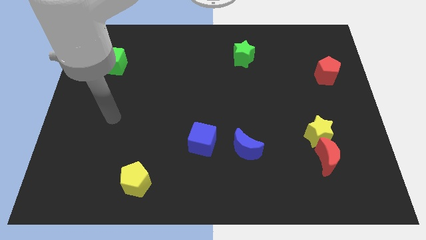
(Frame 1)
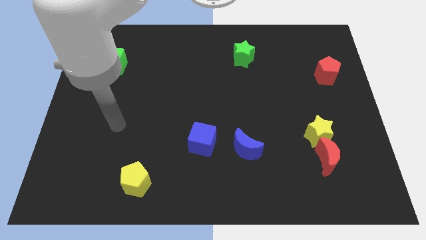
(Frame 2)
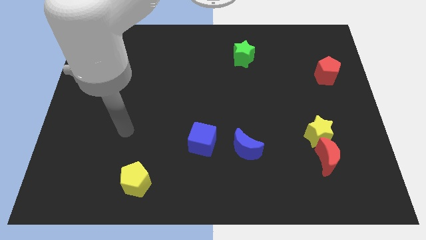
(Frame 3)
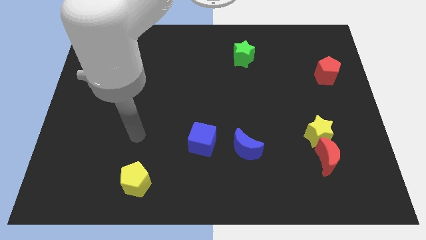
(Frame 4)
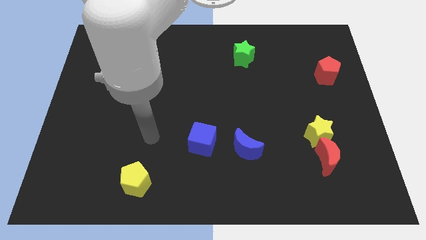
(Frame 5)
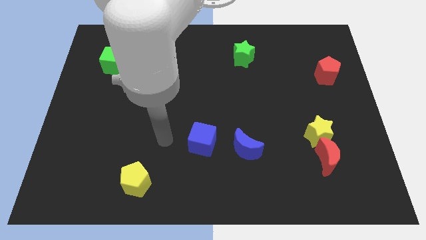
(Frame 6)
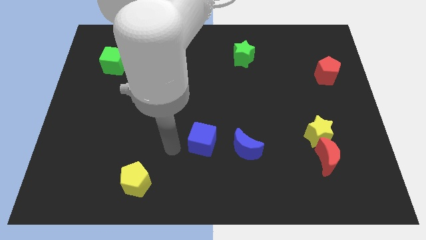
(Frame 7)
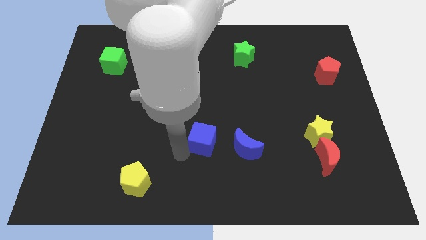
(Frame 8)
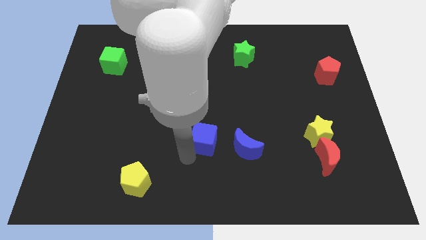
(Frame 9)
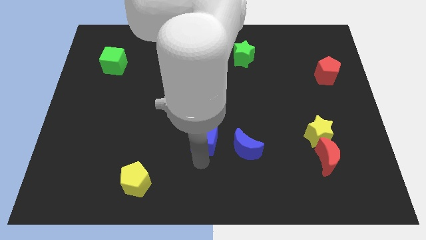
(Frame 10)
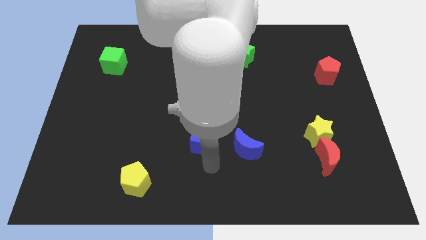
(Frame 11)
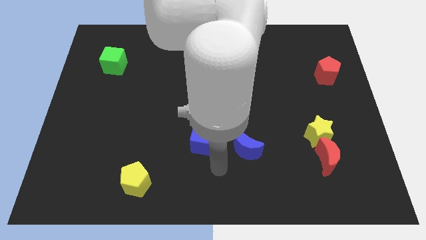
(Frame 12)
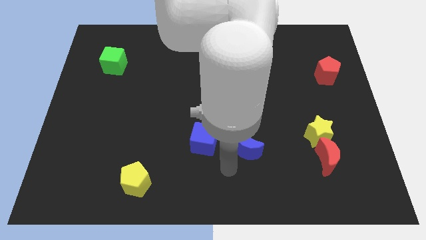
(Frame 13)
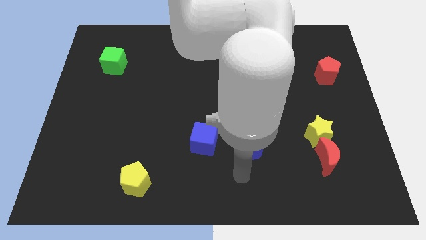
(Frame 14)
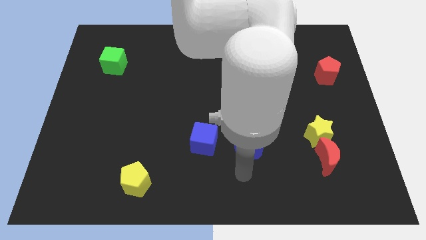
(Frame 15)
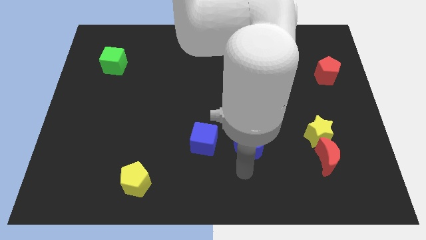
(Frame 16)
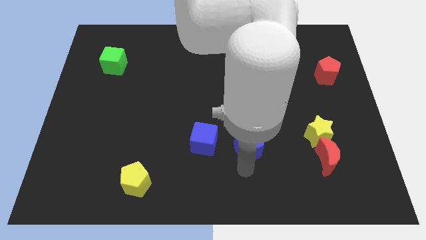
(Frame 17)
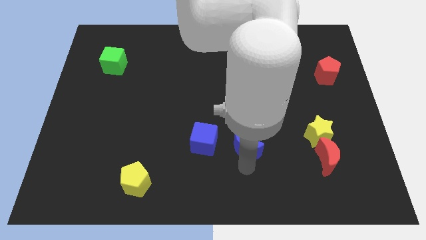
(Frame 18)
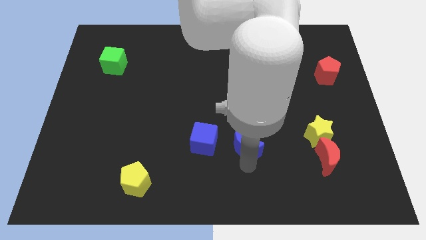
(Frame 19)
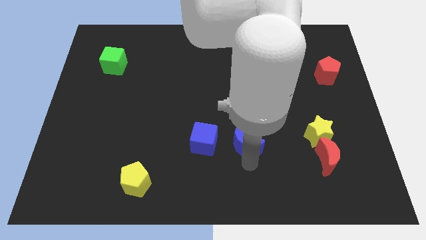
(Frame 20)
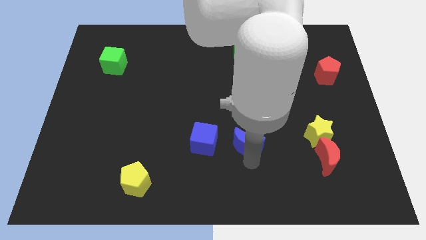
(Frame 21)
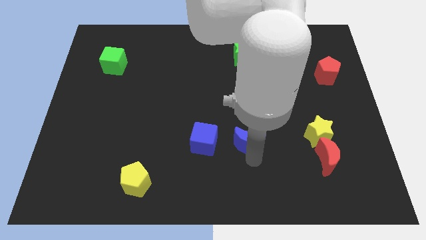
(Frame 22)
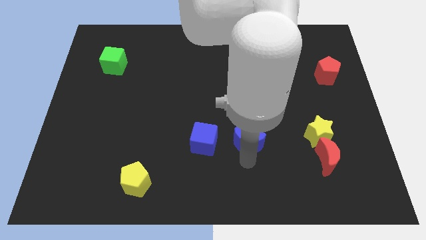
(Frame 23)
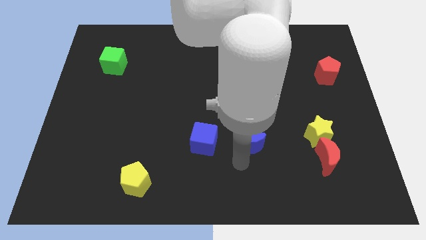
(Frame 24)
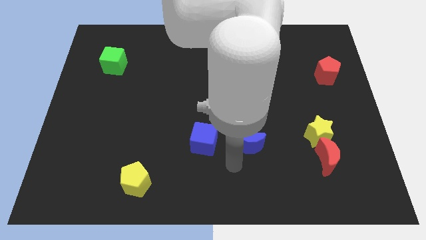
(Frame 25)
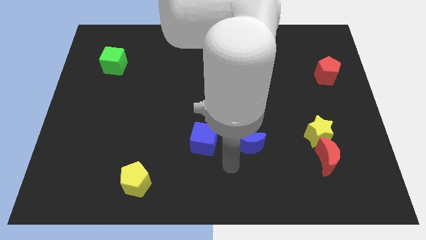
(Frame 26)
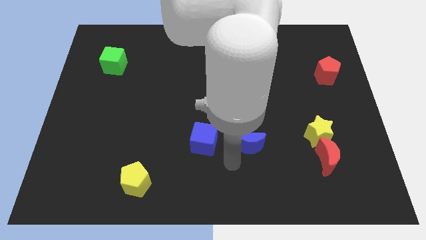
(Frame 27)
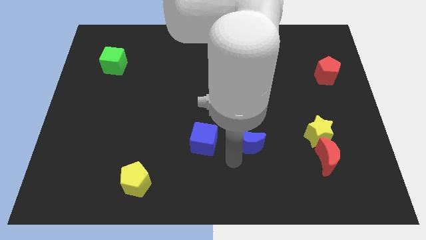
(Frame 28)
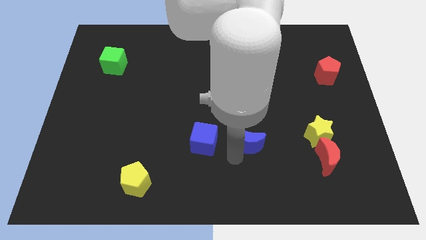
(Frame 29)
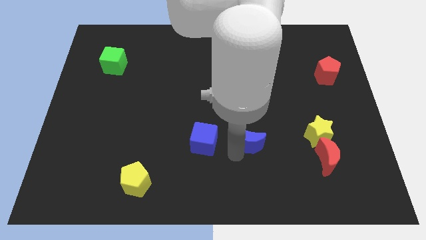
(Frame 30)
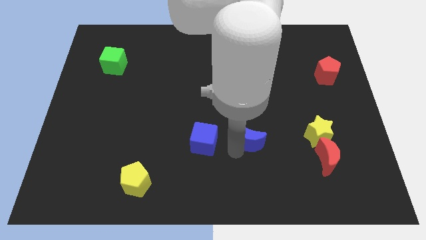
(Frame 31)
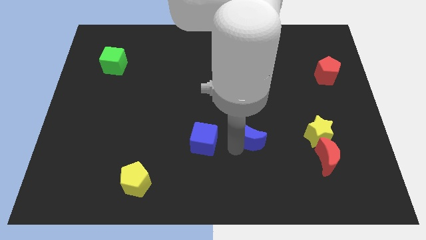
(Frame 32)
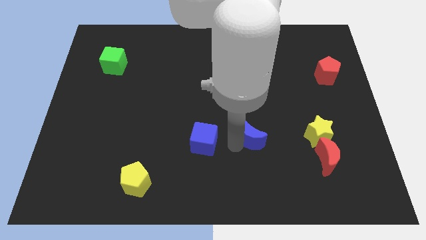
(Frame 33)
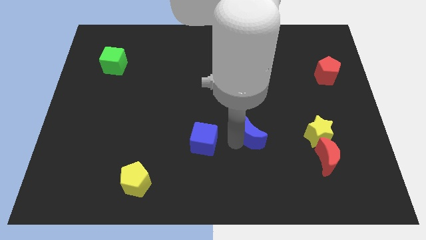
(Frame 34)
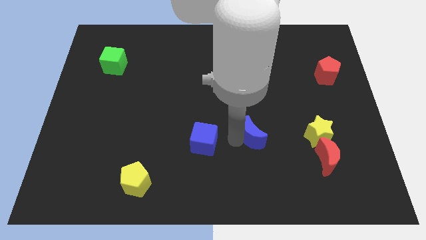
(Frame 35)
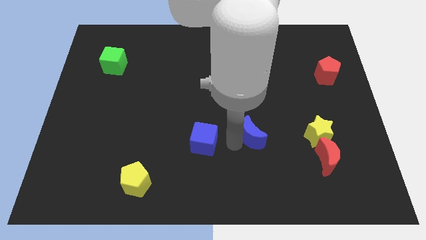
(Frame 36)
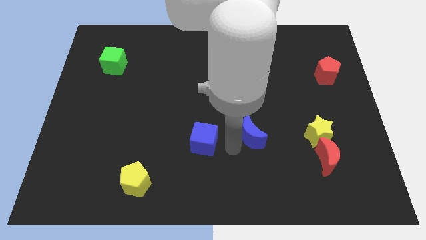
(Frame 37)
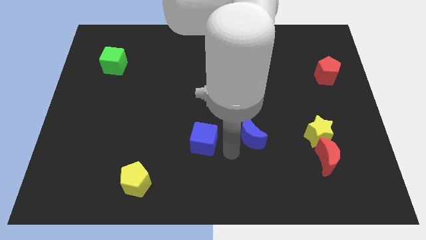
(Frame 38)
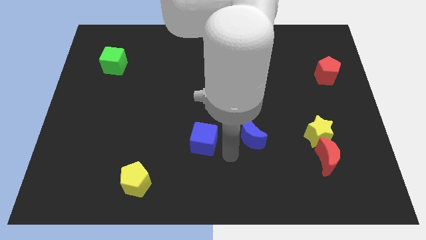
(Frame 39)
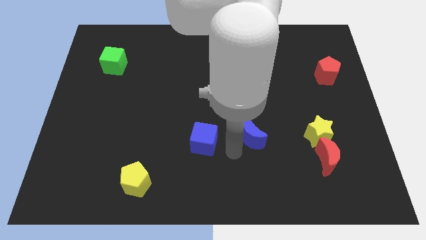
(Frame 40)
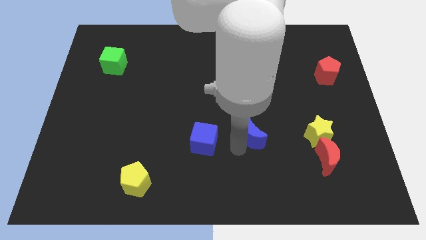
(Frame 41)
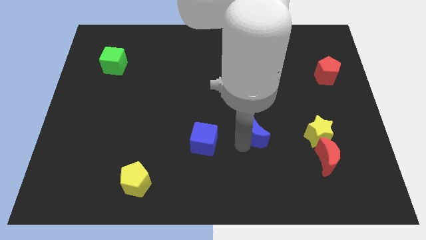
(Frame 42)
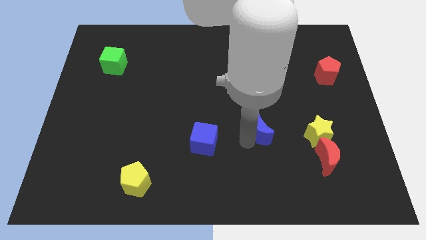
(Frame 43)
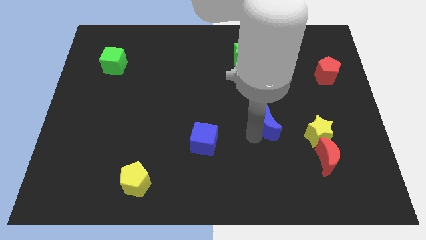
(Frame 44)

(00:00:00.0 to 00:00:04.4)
slide the blue moon a little diagonally up and to the right

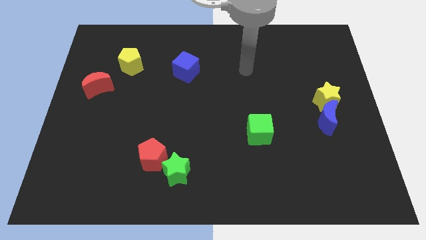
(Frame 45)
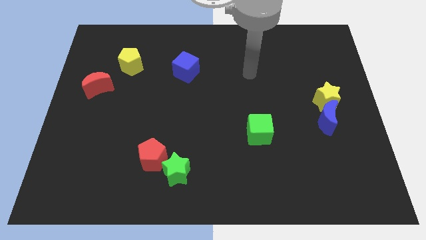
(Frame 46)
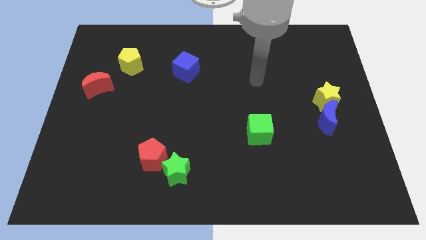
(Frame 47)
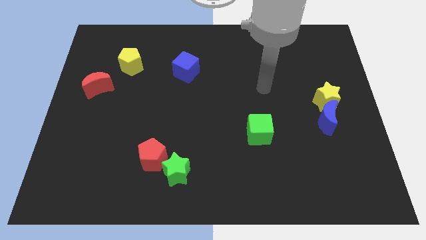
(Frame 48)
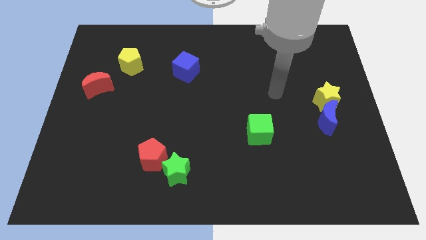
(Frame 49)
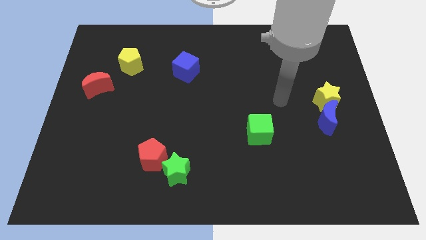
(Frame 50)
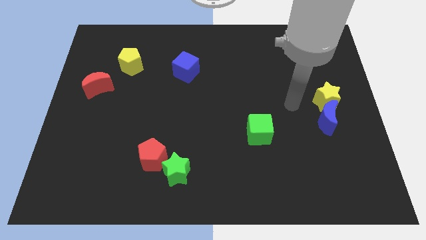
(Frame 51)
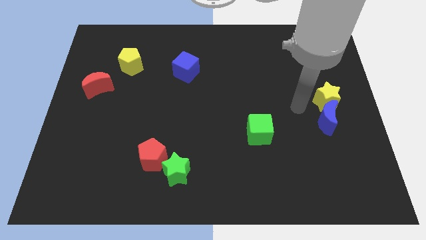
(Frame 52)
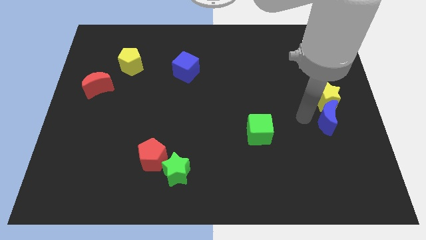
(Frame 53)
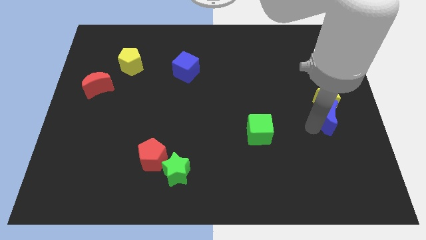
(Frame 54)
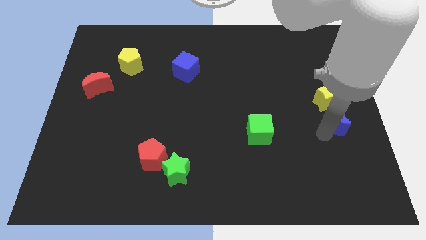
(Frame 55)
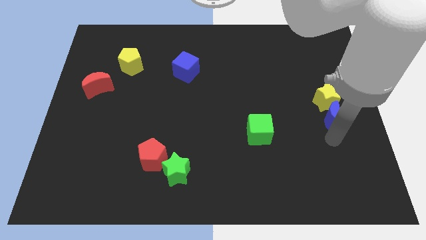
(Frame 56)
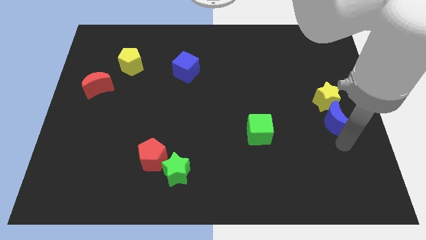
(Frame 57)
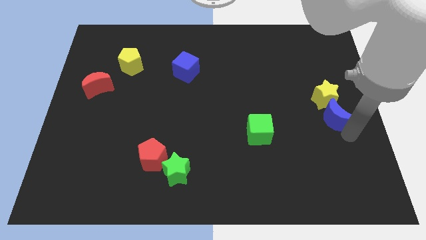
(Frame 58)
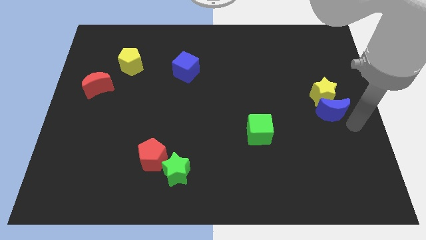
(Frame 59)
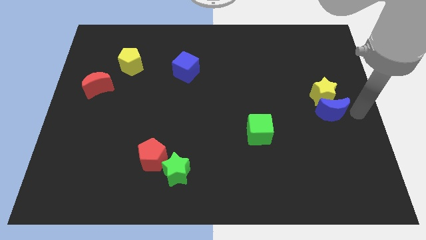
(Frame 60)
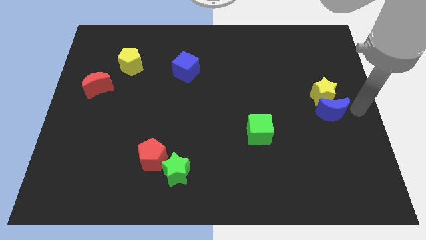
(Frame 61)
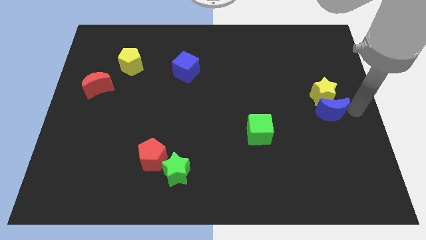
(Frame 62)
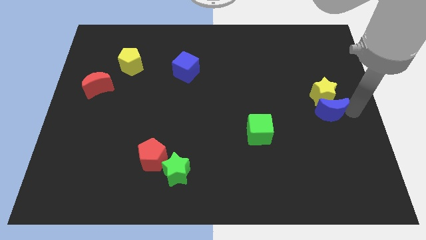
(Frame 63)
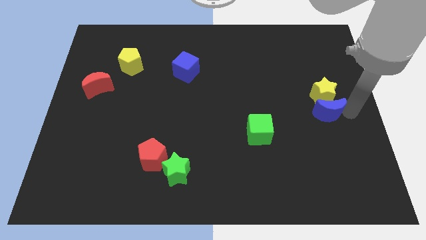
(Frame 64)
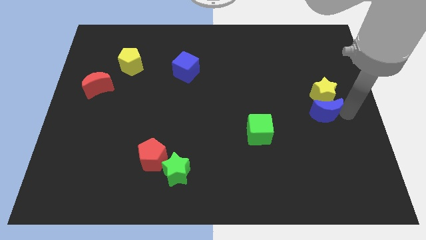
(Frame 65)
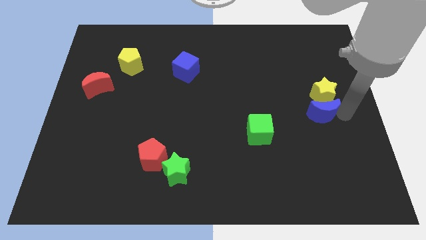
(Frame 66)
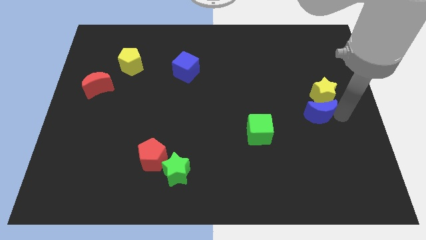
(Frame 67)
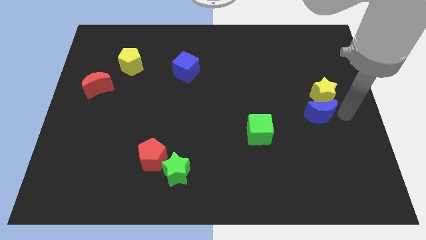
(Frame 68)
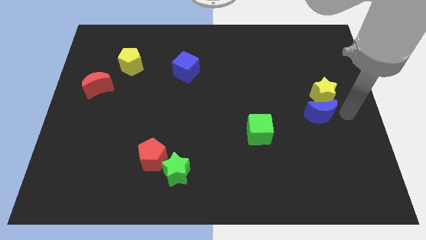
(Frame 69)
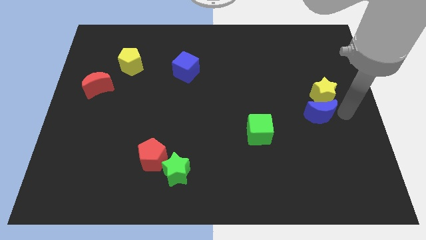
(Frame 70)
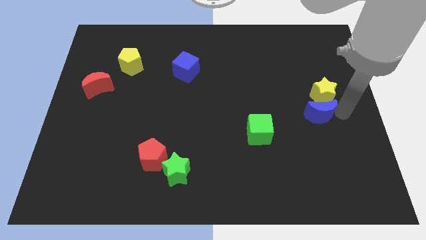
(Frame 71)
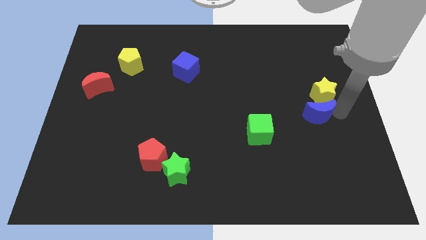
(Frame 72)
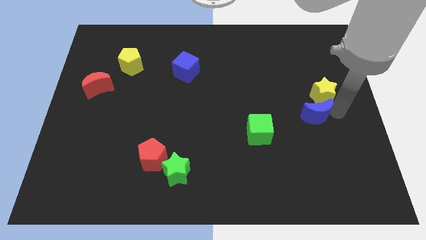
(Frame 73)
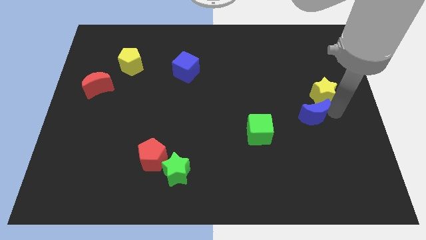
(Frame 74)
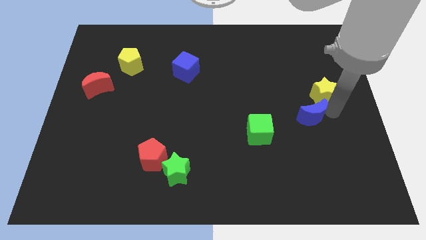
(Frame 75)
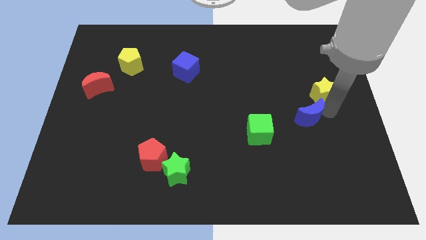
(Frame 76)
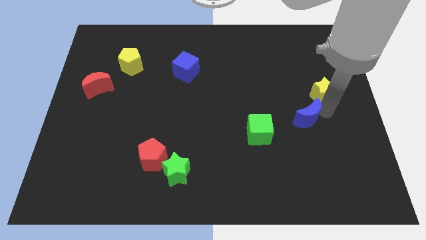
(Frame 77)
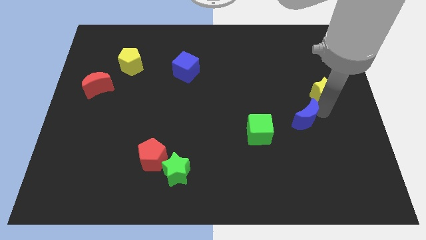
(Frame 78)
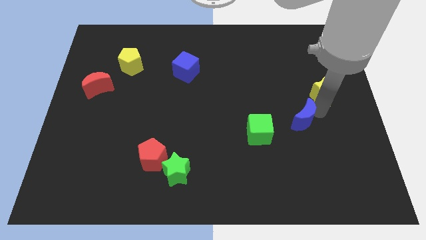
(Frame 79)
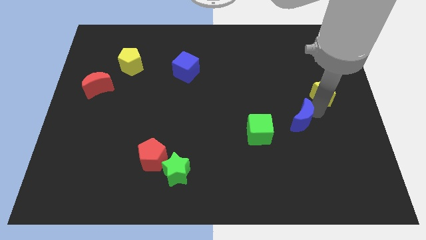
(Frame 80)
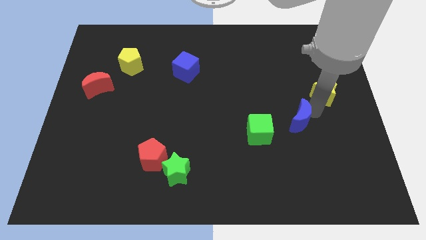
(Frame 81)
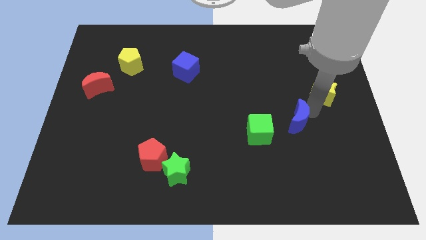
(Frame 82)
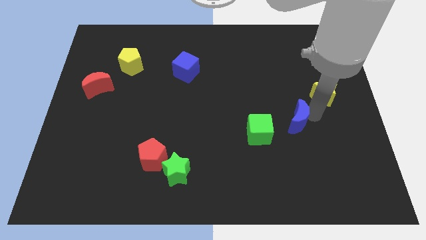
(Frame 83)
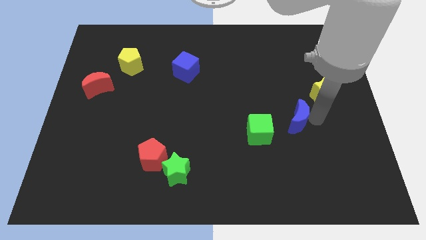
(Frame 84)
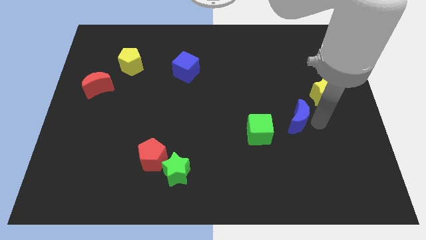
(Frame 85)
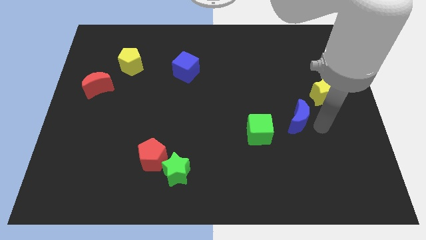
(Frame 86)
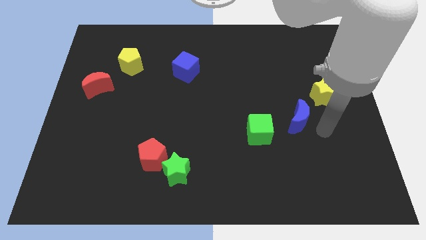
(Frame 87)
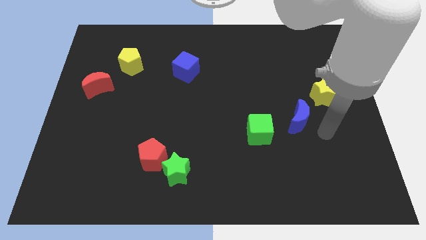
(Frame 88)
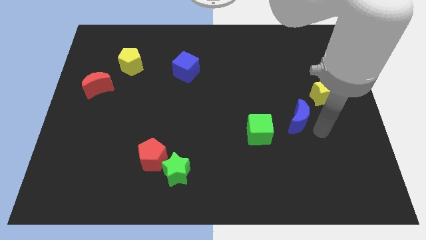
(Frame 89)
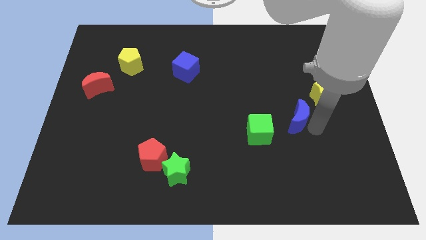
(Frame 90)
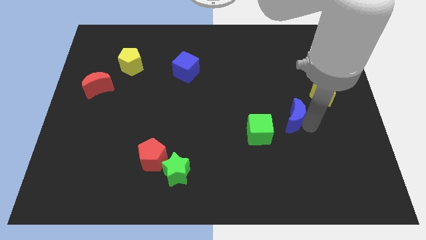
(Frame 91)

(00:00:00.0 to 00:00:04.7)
move the blue moon a little to the left
